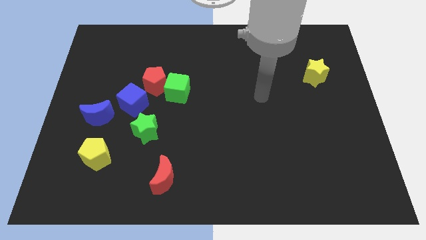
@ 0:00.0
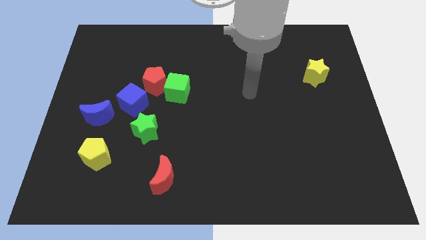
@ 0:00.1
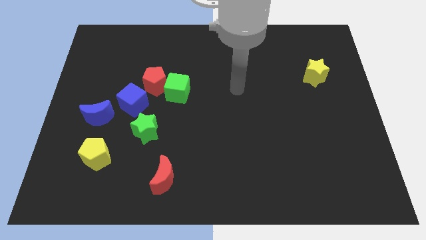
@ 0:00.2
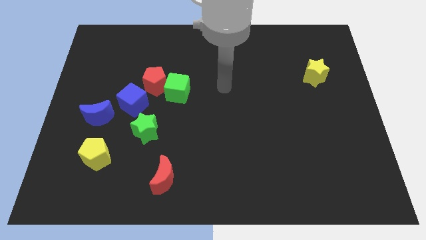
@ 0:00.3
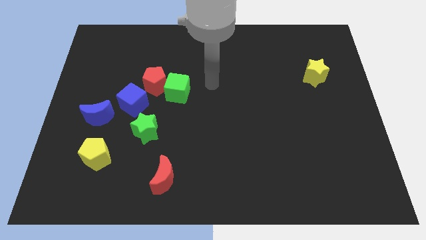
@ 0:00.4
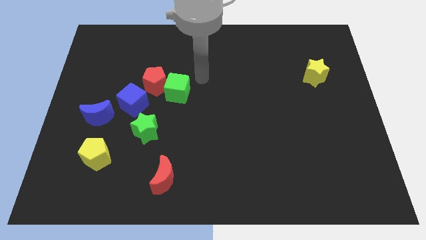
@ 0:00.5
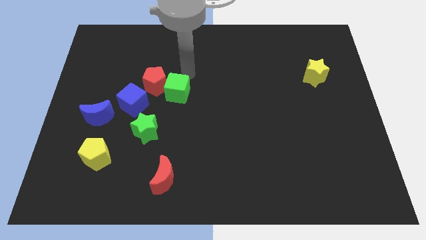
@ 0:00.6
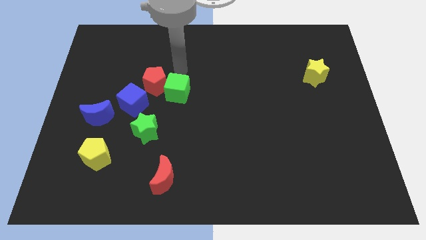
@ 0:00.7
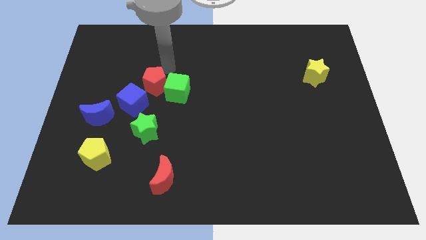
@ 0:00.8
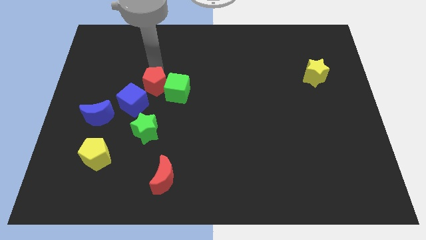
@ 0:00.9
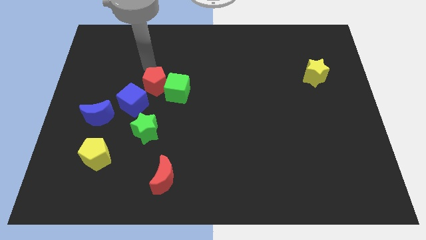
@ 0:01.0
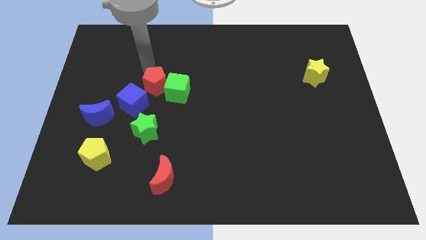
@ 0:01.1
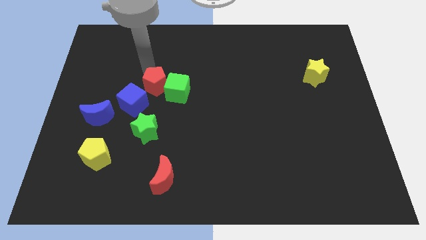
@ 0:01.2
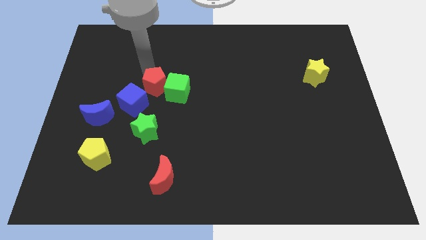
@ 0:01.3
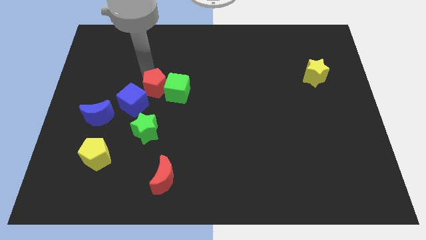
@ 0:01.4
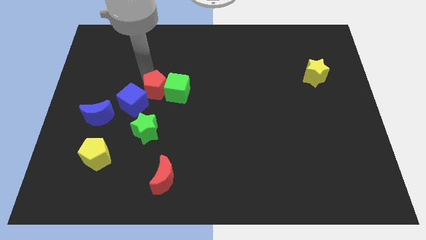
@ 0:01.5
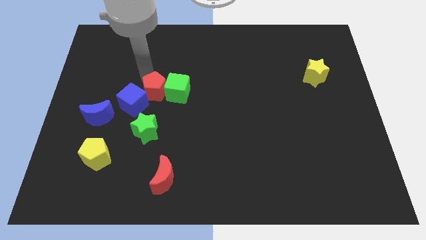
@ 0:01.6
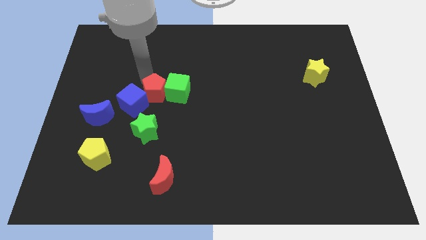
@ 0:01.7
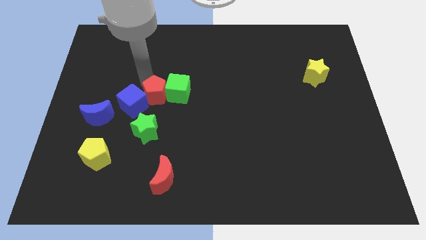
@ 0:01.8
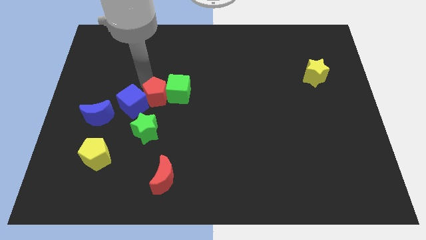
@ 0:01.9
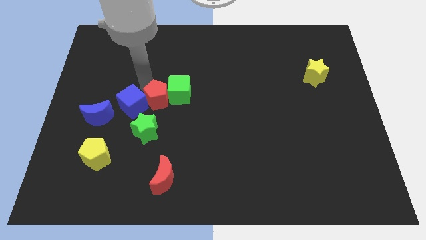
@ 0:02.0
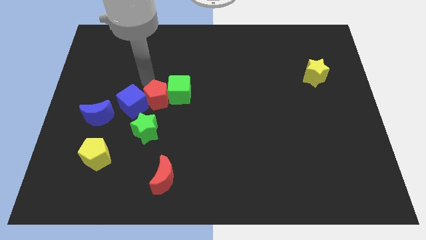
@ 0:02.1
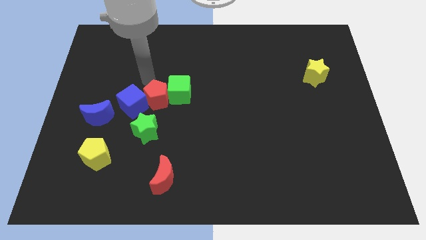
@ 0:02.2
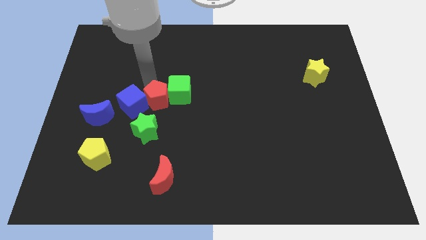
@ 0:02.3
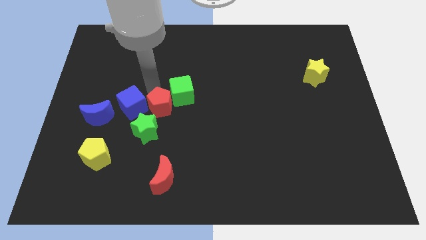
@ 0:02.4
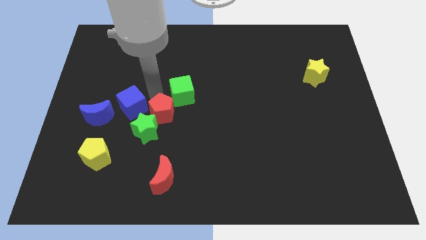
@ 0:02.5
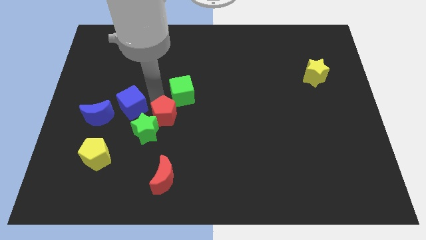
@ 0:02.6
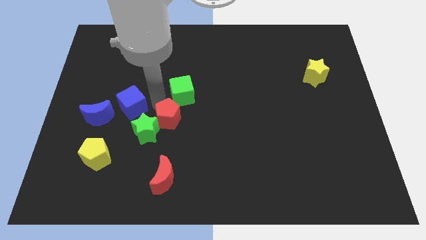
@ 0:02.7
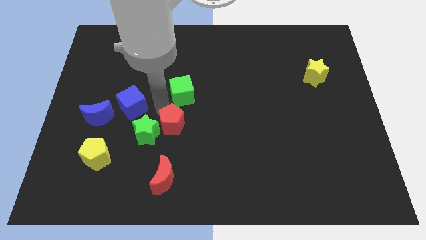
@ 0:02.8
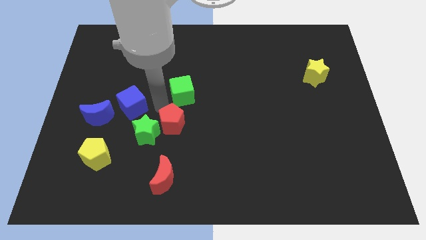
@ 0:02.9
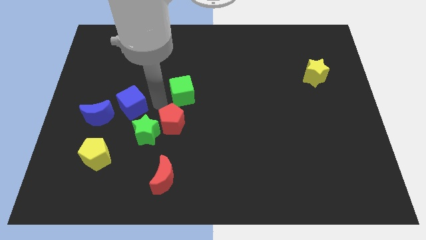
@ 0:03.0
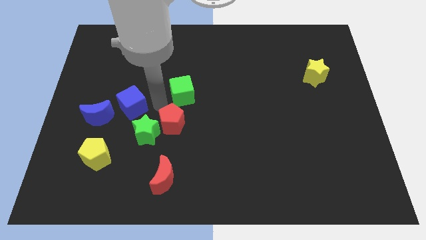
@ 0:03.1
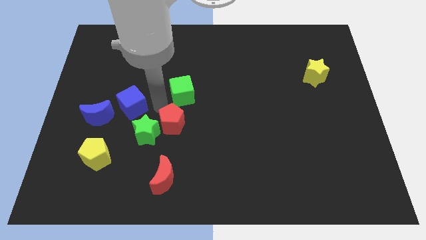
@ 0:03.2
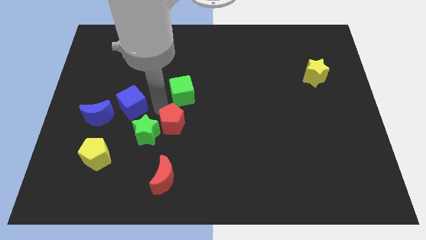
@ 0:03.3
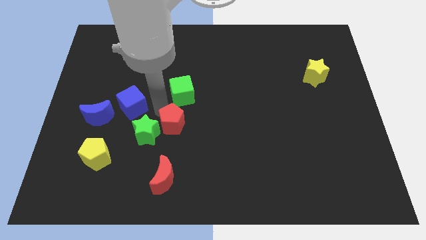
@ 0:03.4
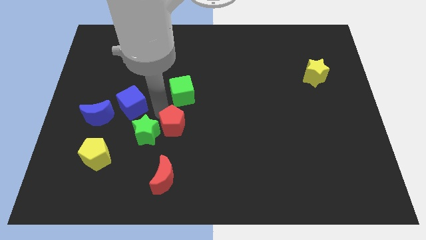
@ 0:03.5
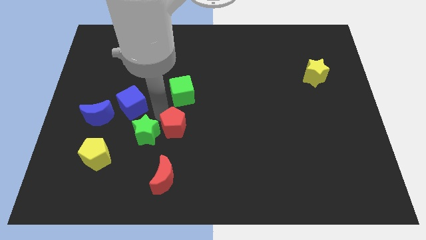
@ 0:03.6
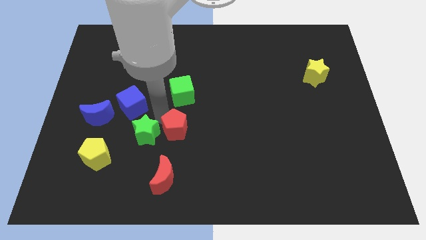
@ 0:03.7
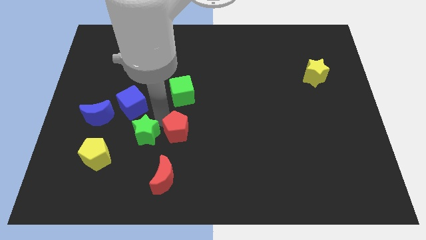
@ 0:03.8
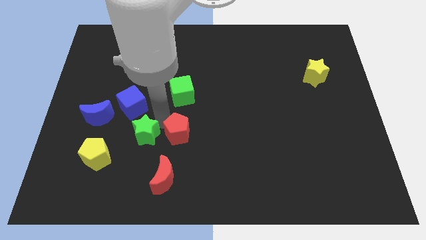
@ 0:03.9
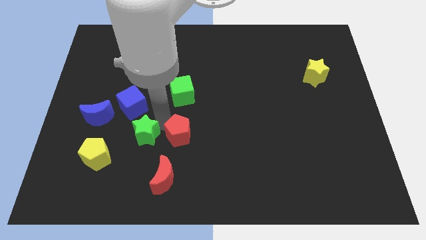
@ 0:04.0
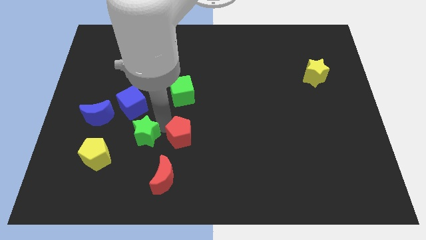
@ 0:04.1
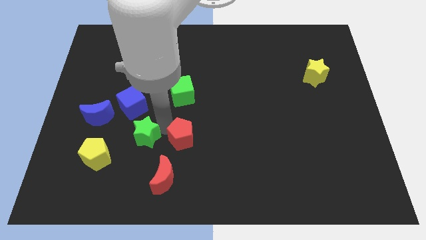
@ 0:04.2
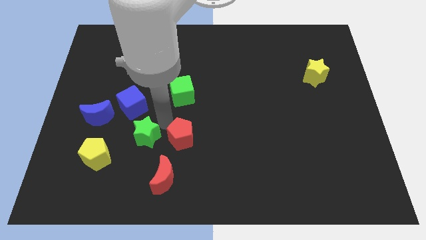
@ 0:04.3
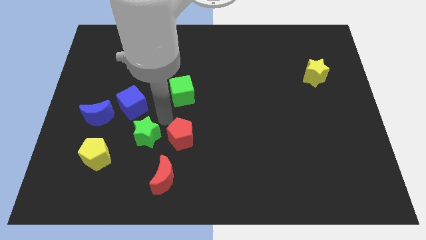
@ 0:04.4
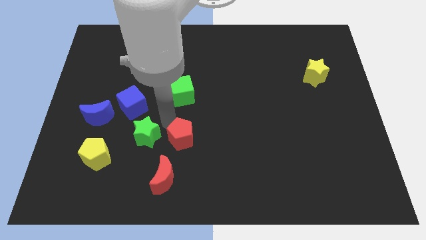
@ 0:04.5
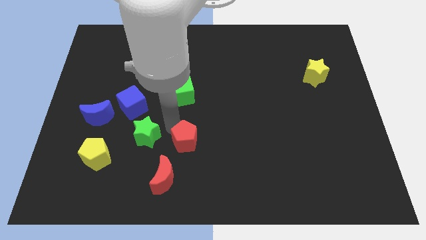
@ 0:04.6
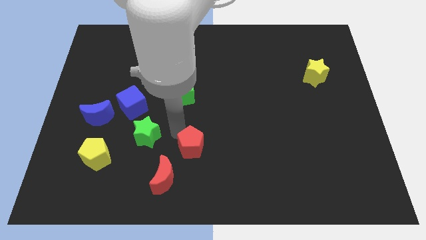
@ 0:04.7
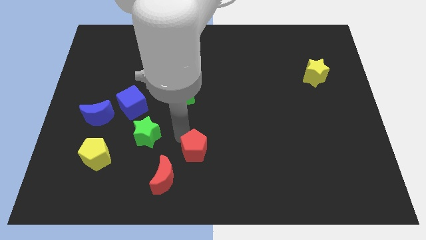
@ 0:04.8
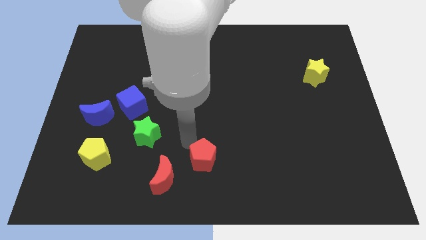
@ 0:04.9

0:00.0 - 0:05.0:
slide the red pentagon to the bottom

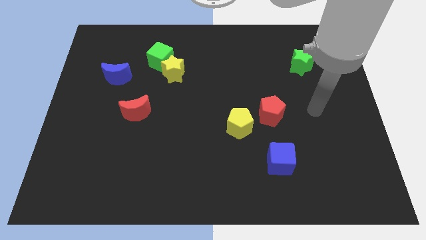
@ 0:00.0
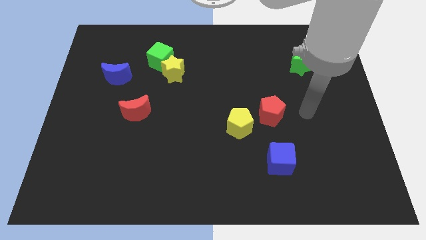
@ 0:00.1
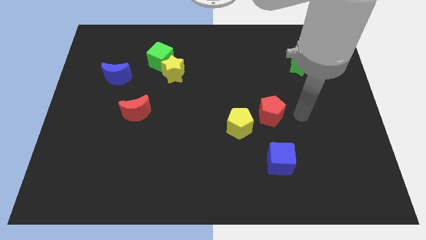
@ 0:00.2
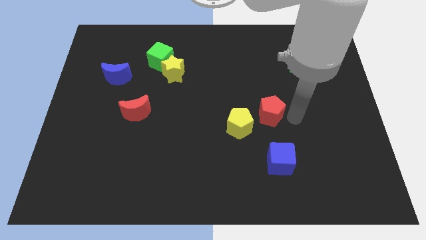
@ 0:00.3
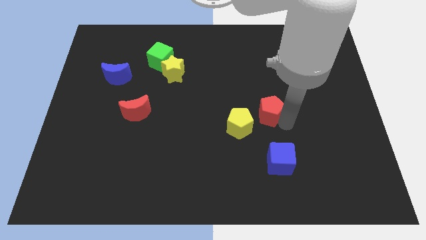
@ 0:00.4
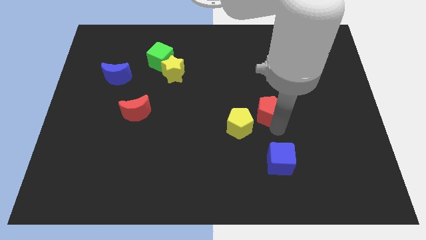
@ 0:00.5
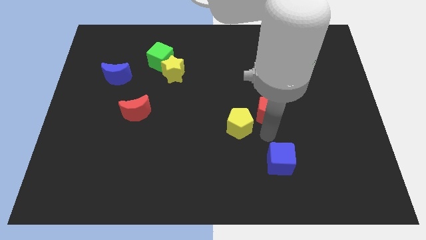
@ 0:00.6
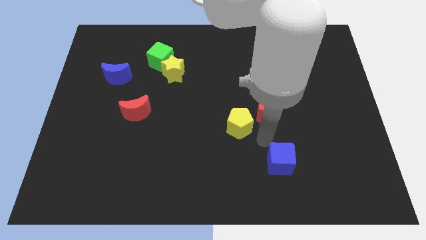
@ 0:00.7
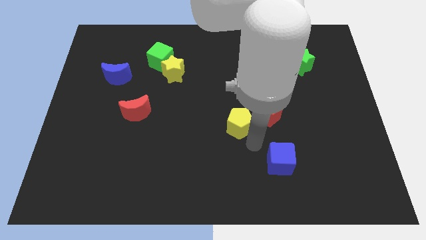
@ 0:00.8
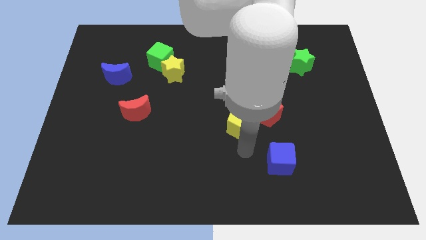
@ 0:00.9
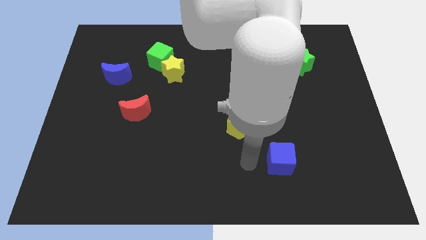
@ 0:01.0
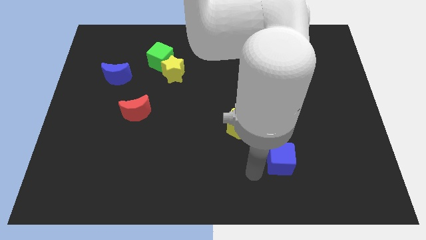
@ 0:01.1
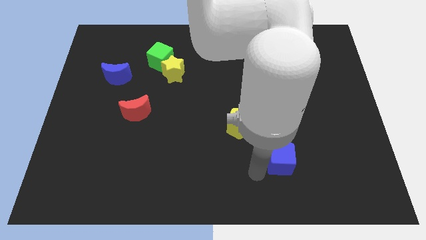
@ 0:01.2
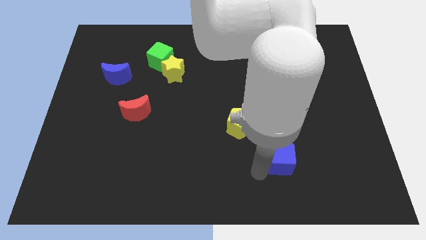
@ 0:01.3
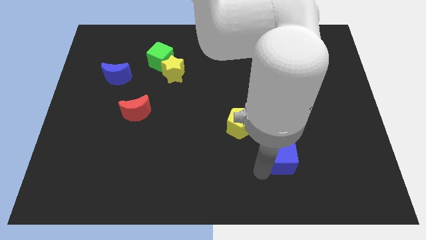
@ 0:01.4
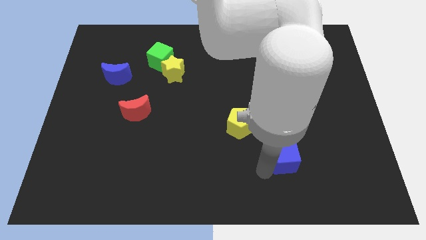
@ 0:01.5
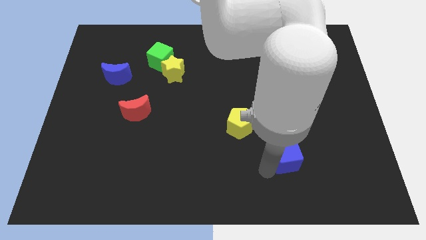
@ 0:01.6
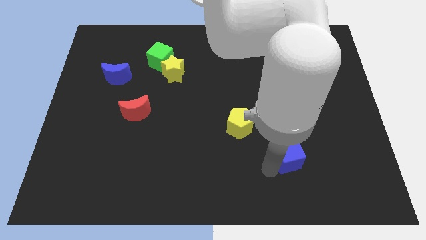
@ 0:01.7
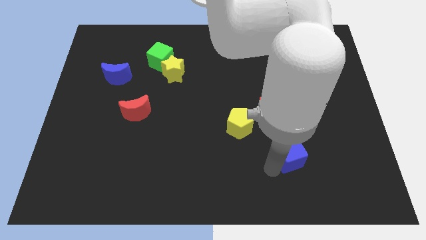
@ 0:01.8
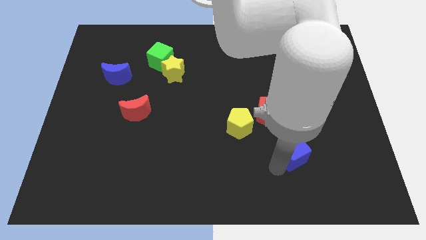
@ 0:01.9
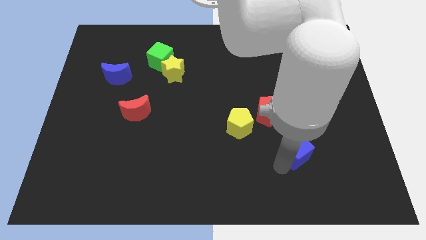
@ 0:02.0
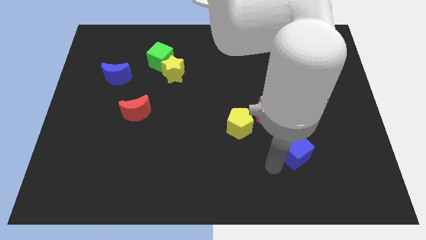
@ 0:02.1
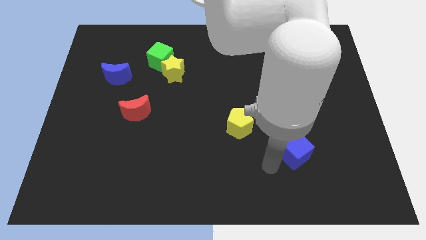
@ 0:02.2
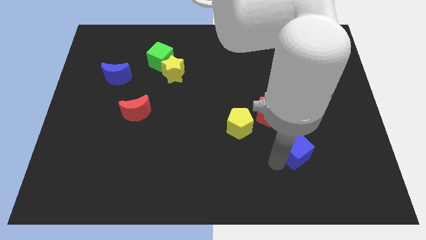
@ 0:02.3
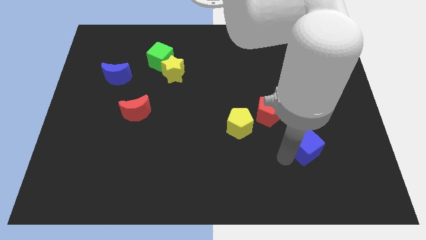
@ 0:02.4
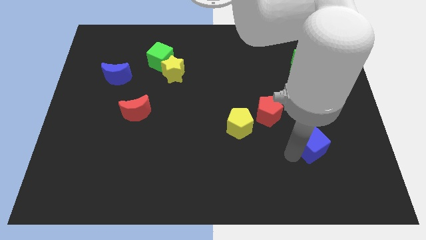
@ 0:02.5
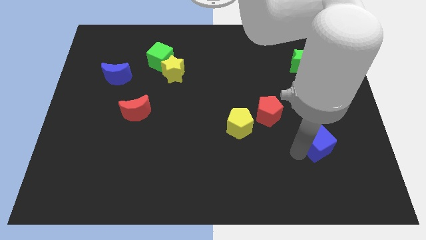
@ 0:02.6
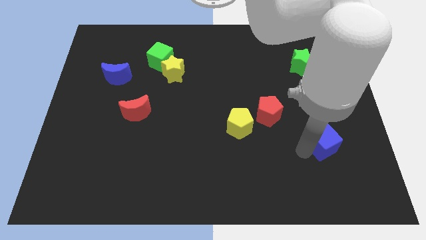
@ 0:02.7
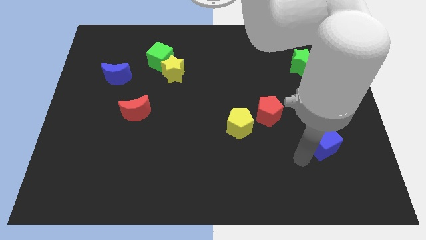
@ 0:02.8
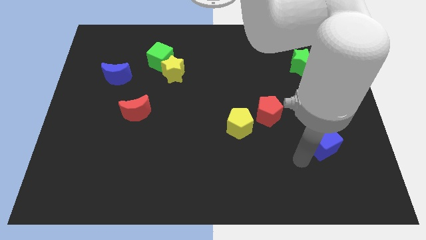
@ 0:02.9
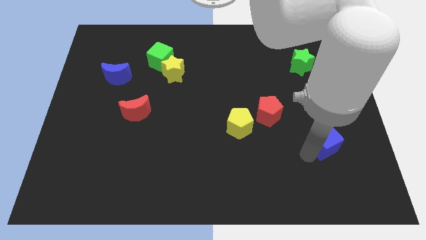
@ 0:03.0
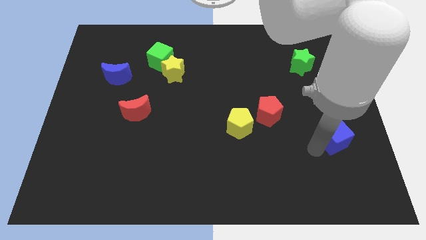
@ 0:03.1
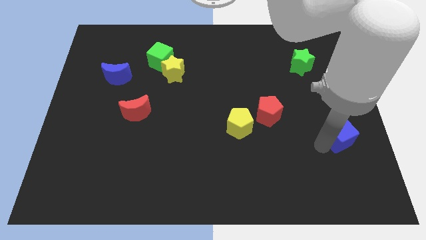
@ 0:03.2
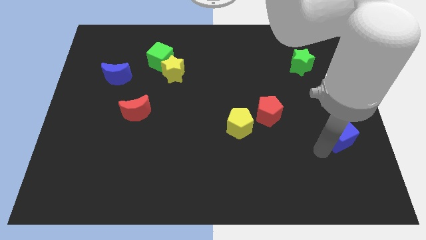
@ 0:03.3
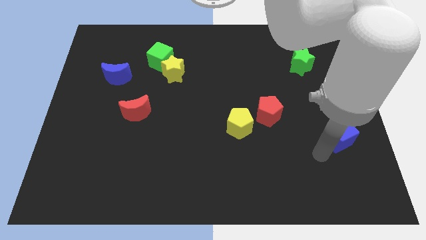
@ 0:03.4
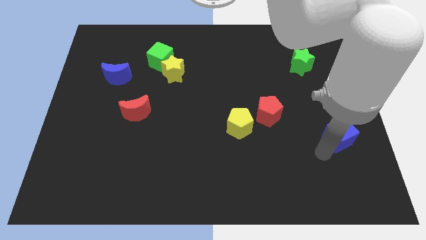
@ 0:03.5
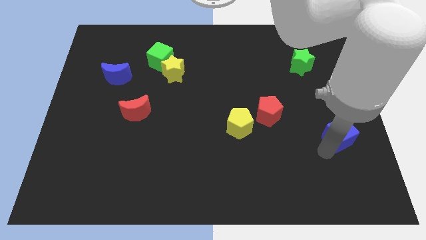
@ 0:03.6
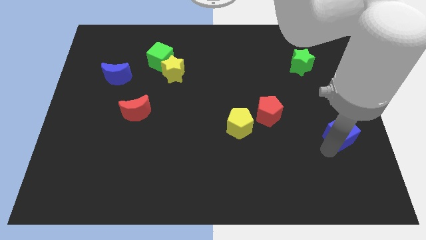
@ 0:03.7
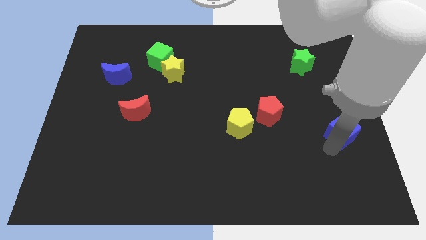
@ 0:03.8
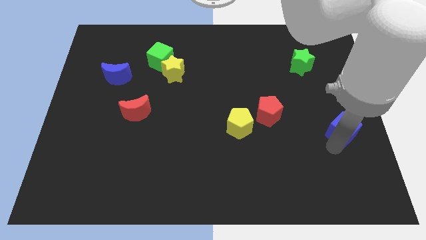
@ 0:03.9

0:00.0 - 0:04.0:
push the blue cube to the right side
